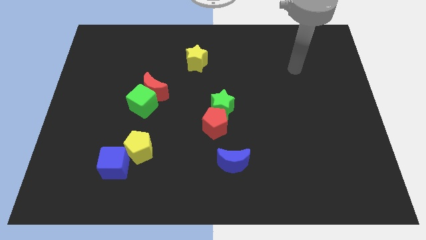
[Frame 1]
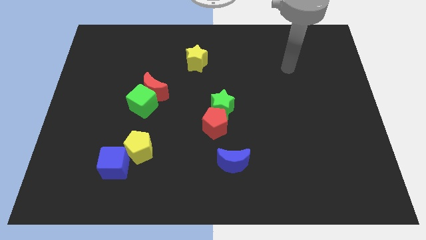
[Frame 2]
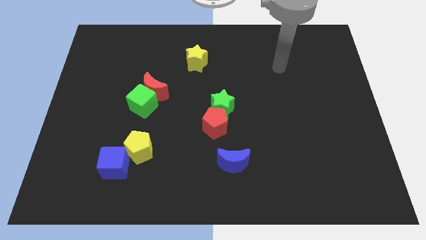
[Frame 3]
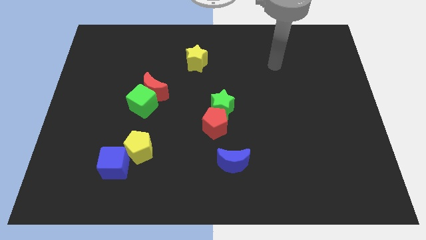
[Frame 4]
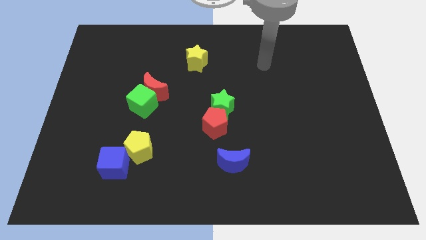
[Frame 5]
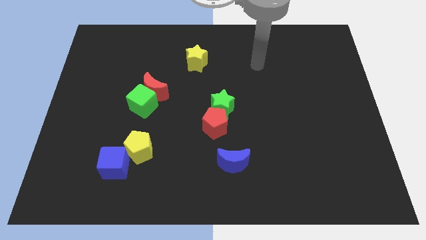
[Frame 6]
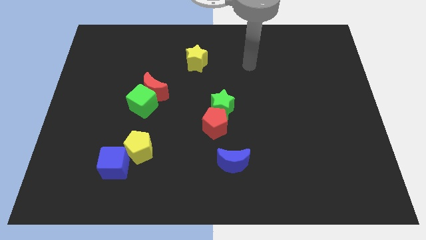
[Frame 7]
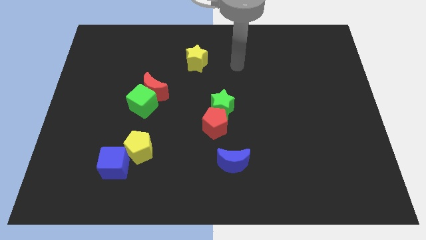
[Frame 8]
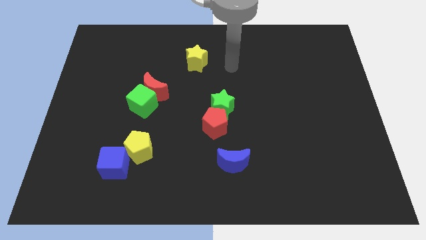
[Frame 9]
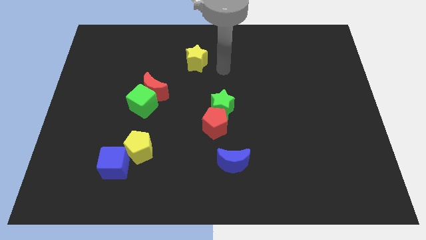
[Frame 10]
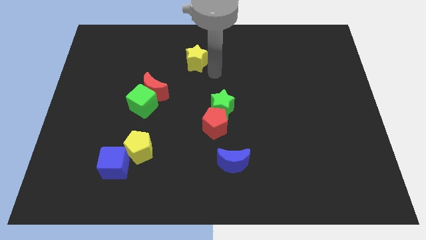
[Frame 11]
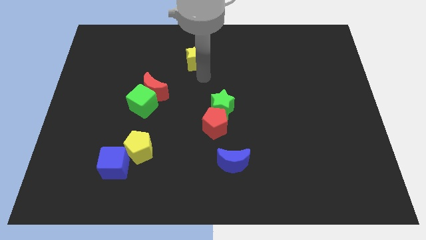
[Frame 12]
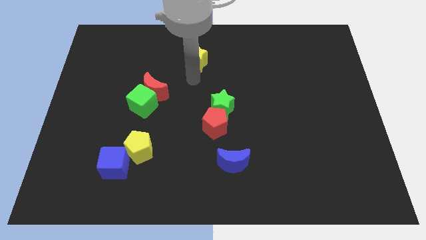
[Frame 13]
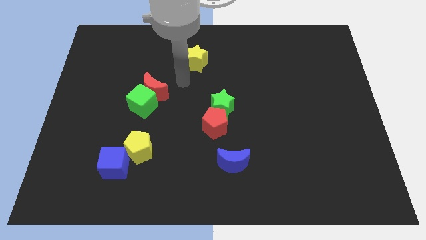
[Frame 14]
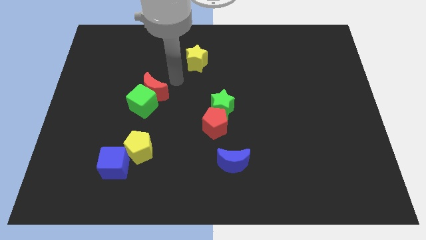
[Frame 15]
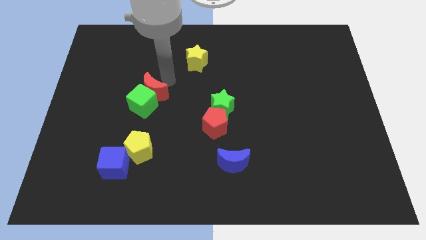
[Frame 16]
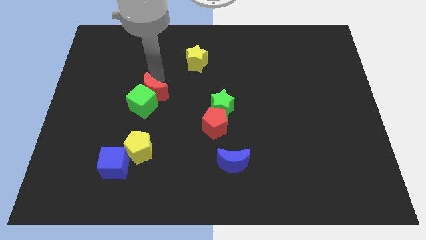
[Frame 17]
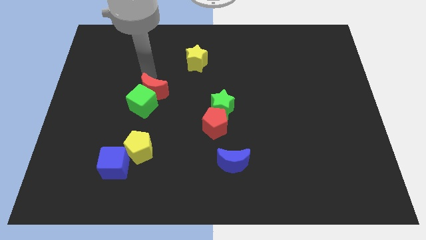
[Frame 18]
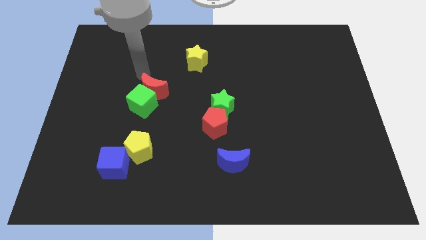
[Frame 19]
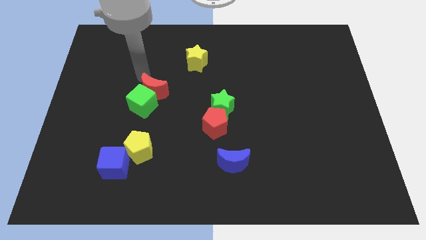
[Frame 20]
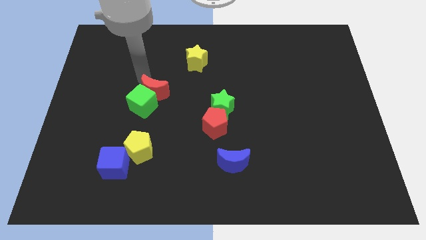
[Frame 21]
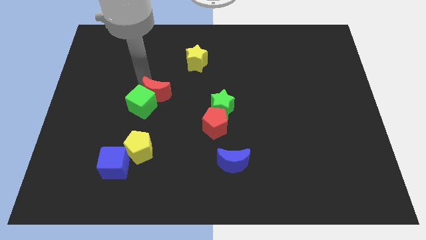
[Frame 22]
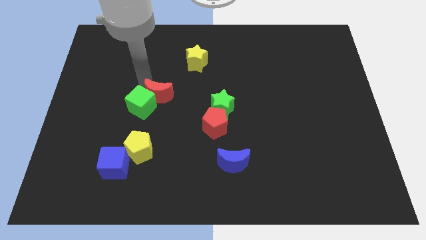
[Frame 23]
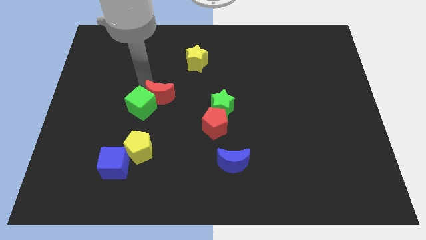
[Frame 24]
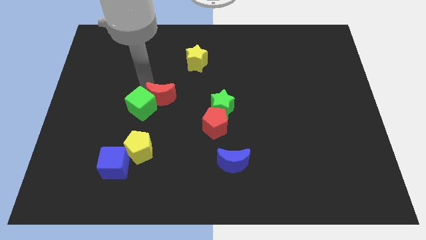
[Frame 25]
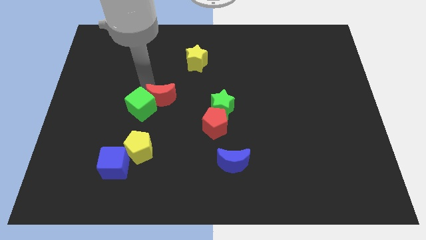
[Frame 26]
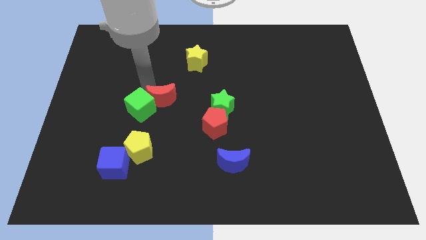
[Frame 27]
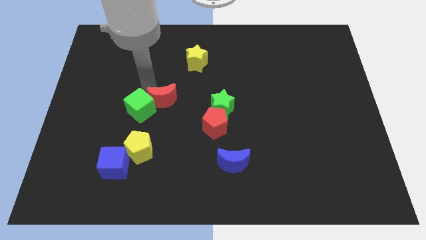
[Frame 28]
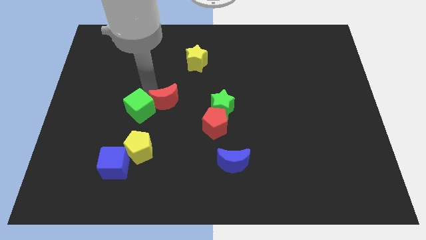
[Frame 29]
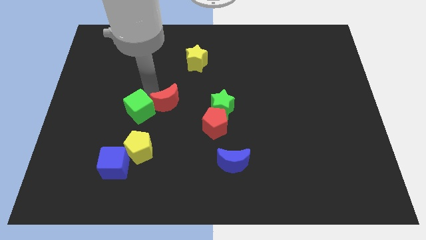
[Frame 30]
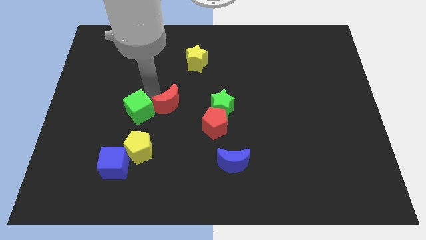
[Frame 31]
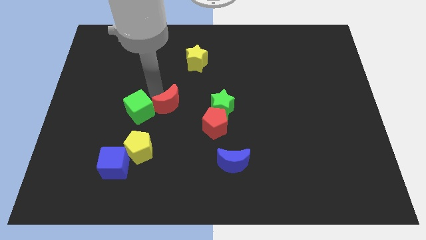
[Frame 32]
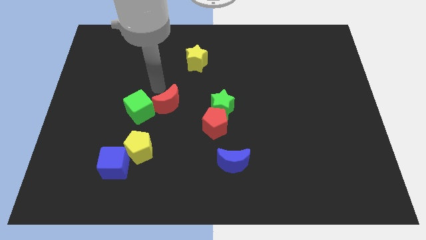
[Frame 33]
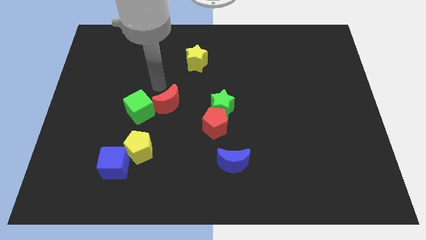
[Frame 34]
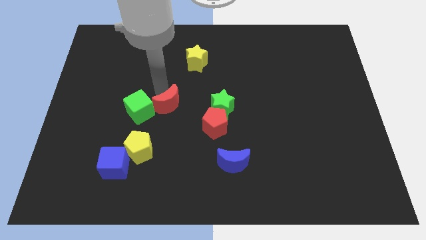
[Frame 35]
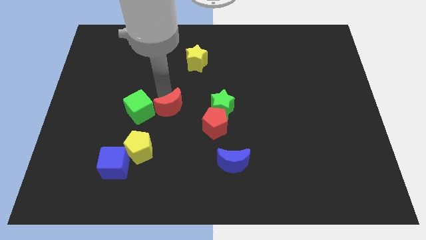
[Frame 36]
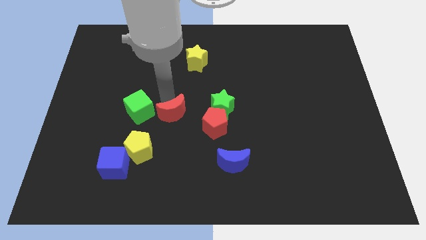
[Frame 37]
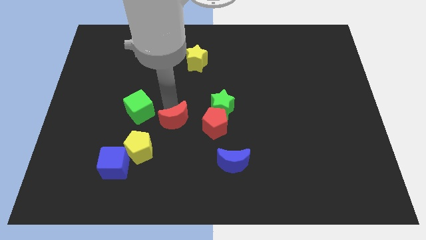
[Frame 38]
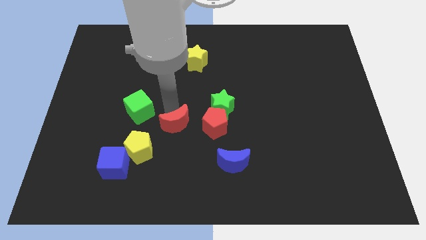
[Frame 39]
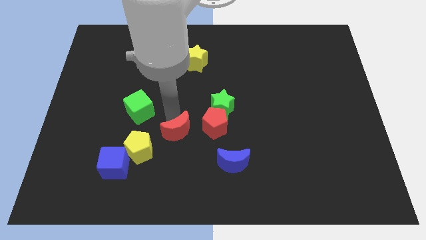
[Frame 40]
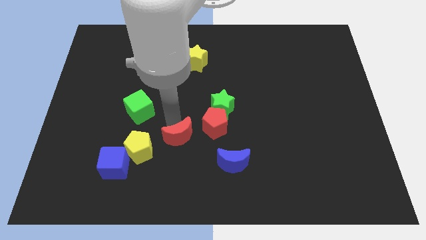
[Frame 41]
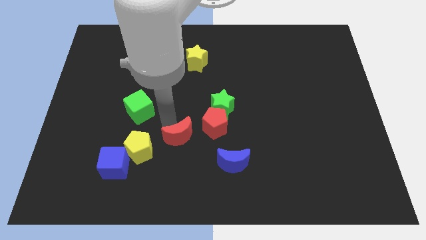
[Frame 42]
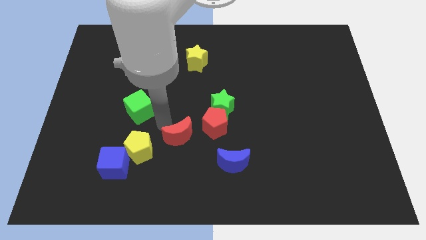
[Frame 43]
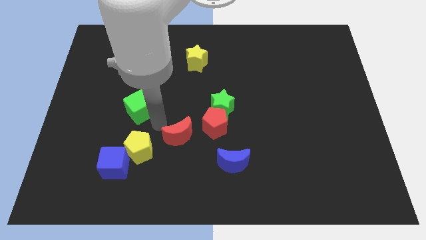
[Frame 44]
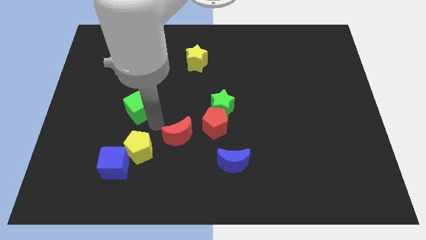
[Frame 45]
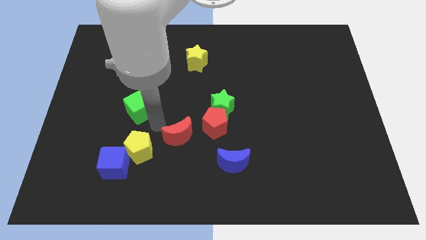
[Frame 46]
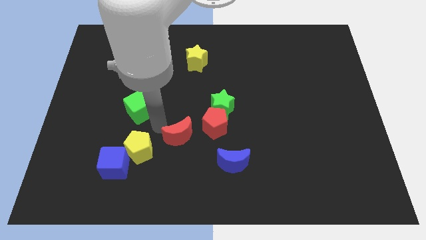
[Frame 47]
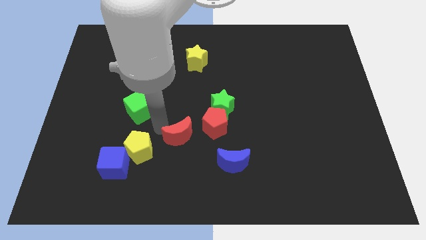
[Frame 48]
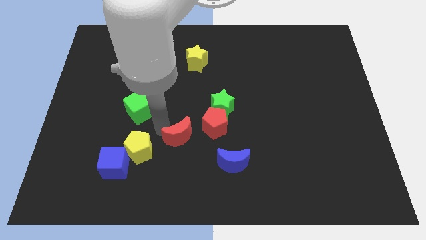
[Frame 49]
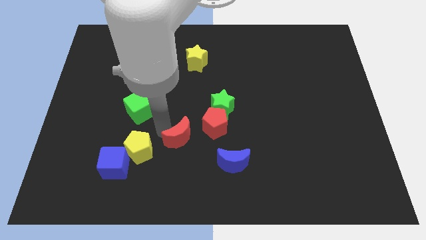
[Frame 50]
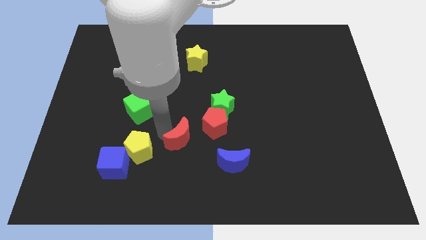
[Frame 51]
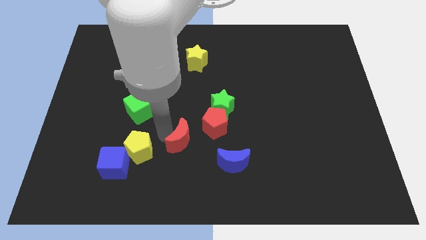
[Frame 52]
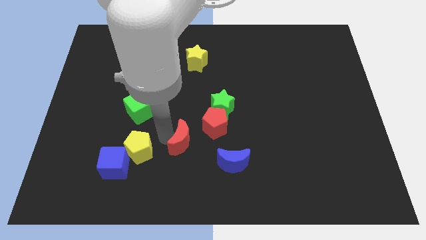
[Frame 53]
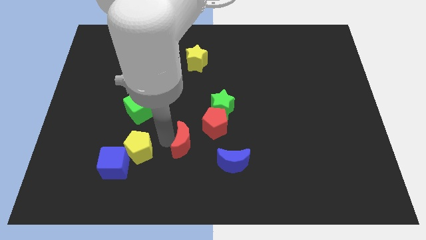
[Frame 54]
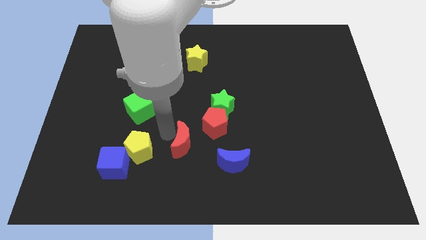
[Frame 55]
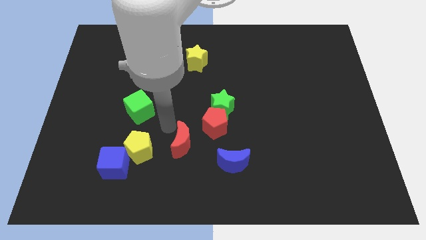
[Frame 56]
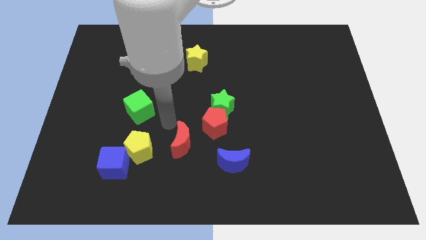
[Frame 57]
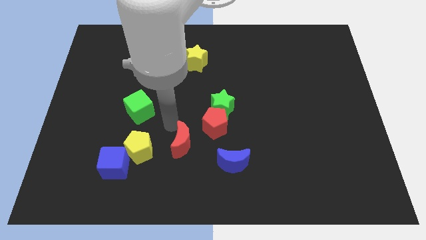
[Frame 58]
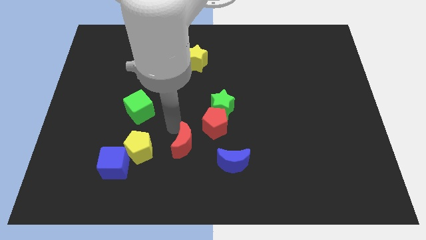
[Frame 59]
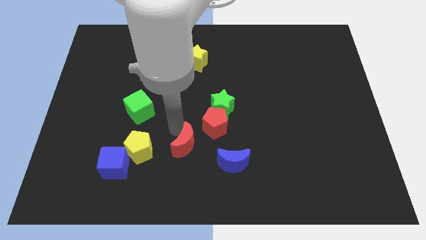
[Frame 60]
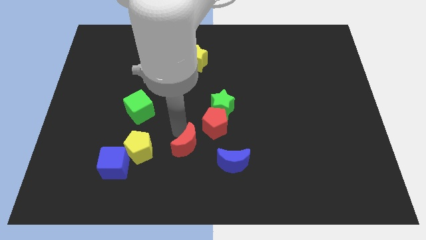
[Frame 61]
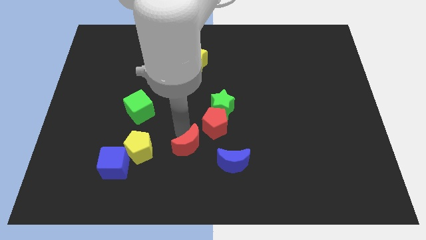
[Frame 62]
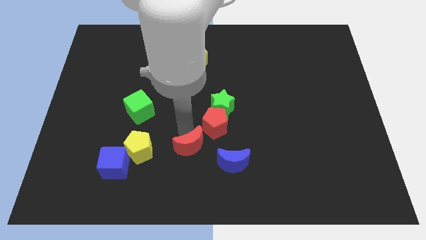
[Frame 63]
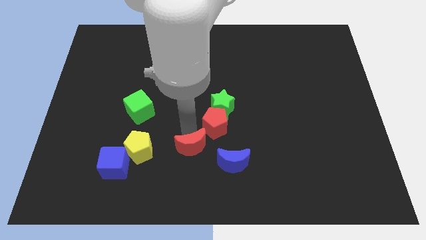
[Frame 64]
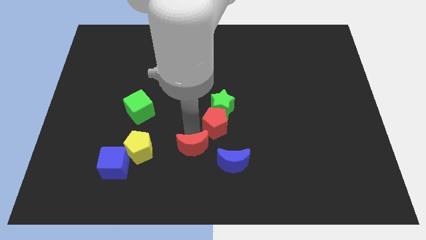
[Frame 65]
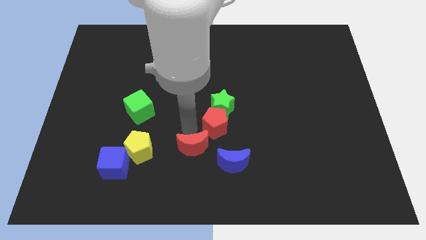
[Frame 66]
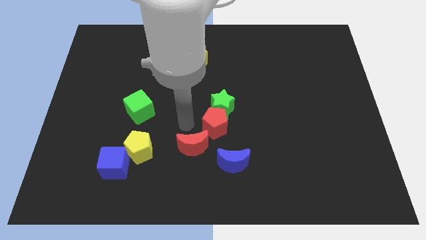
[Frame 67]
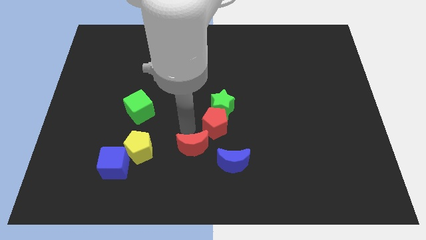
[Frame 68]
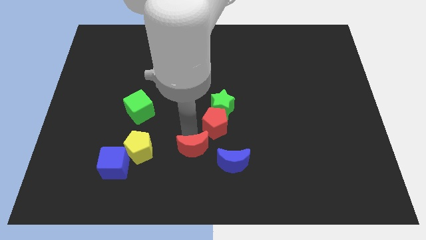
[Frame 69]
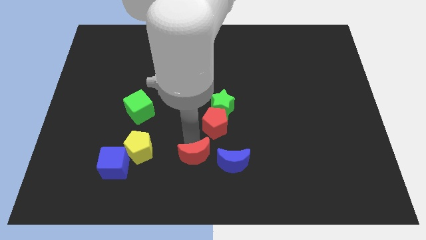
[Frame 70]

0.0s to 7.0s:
slide the red moon to the bottom
